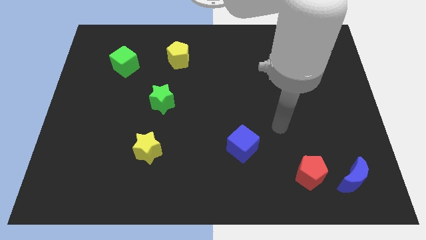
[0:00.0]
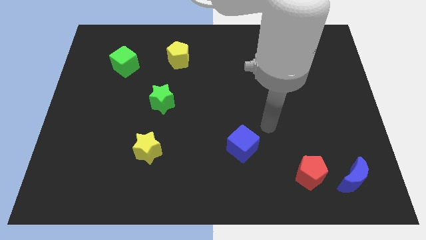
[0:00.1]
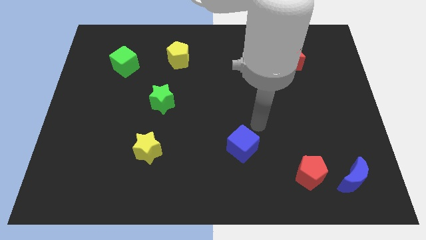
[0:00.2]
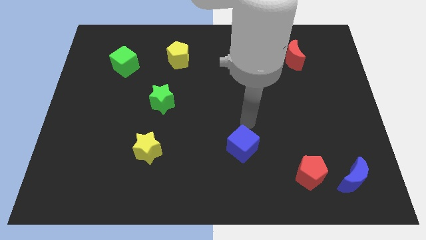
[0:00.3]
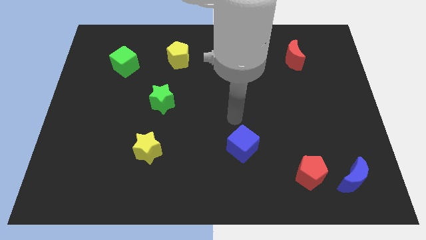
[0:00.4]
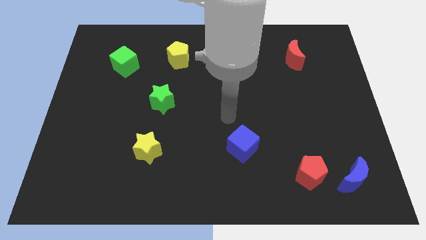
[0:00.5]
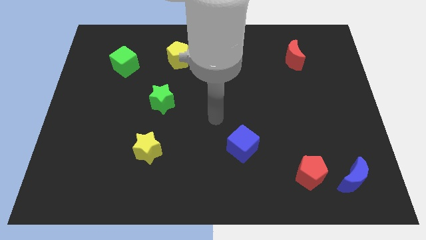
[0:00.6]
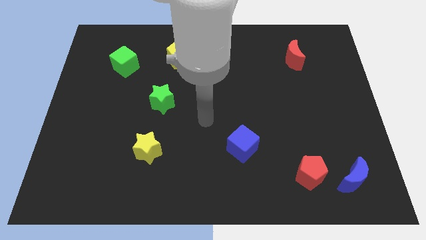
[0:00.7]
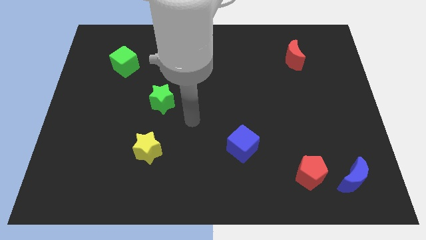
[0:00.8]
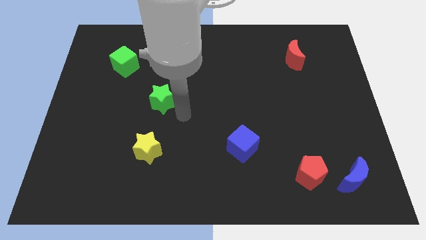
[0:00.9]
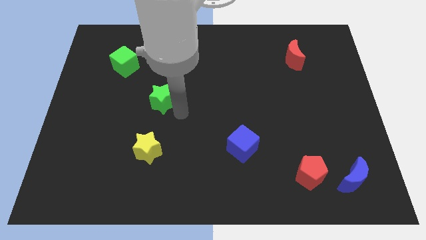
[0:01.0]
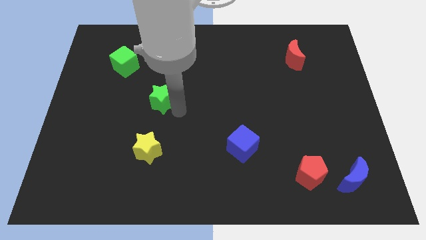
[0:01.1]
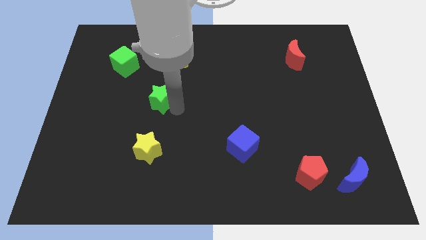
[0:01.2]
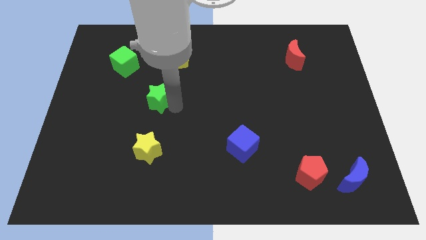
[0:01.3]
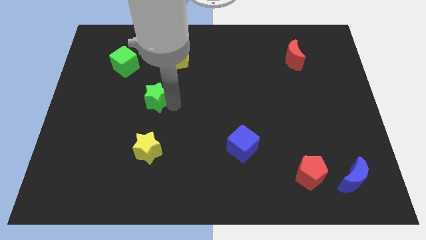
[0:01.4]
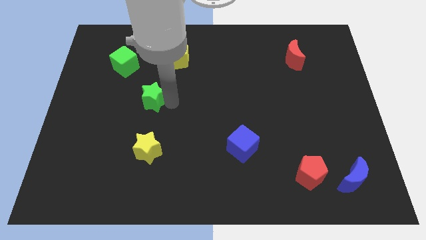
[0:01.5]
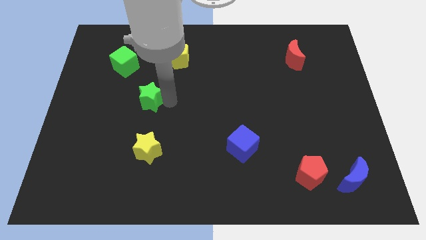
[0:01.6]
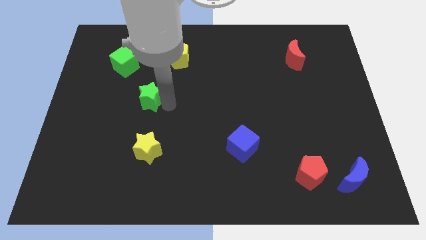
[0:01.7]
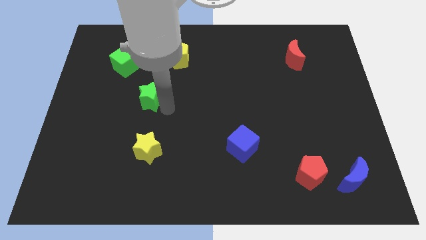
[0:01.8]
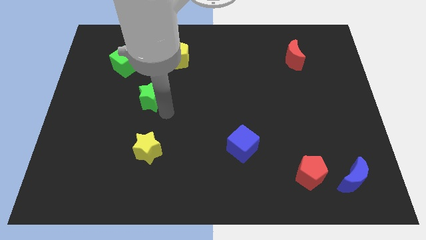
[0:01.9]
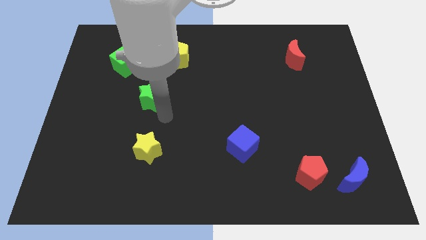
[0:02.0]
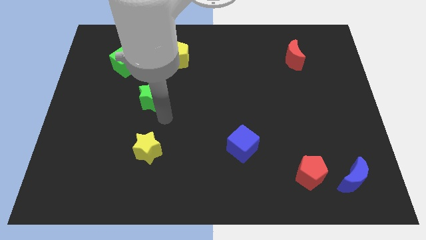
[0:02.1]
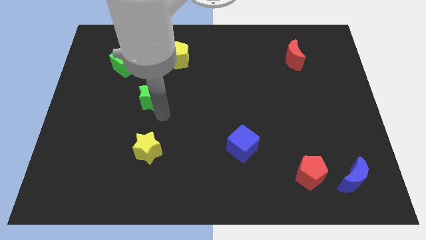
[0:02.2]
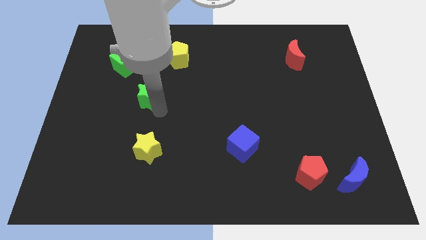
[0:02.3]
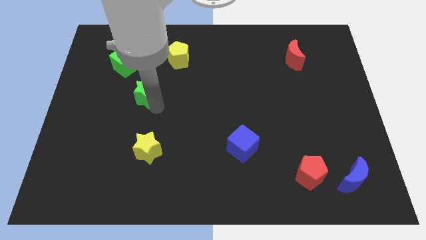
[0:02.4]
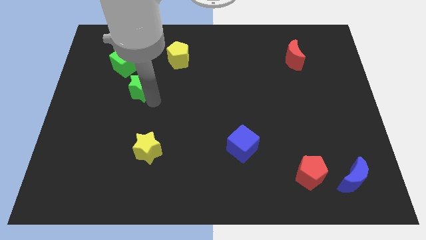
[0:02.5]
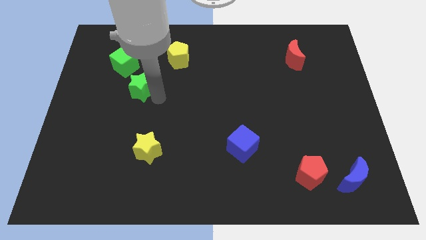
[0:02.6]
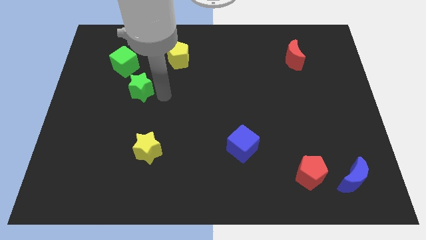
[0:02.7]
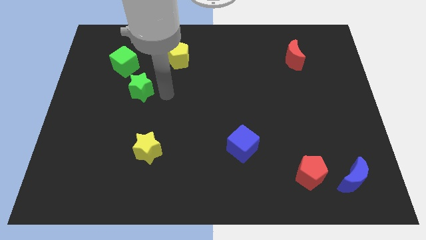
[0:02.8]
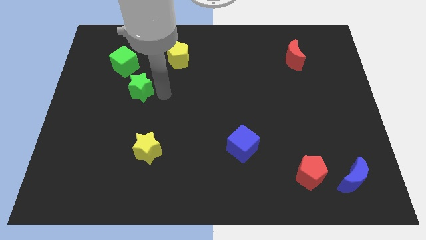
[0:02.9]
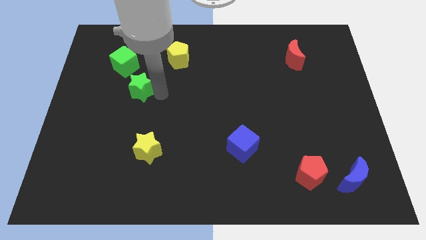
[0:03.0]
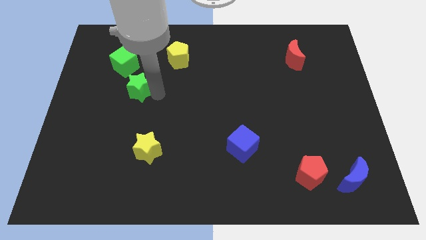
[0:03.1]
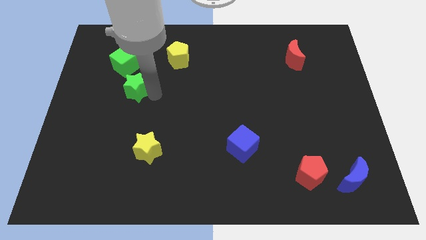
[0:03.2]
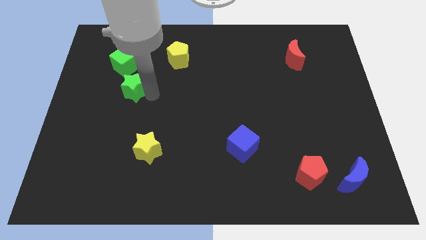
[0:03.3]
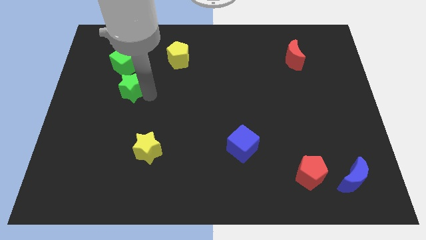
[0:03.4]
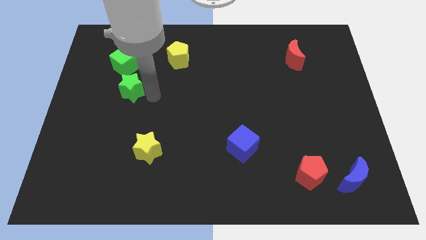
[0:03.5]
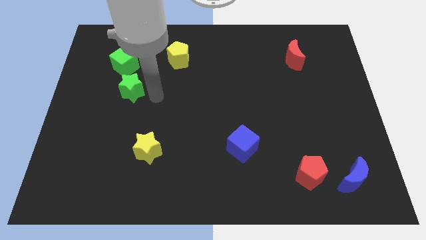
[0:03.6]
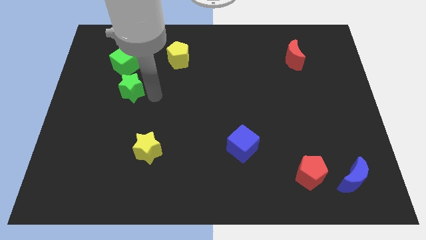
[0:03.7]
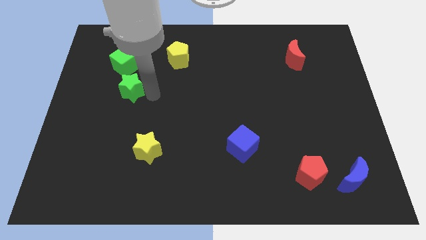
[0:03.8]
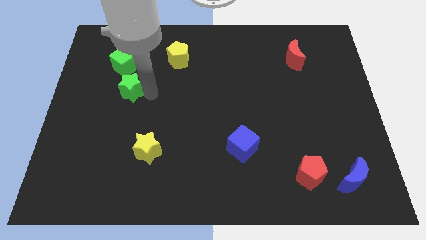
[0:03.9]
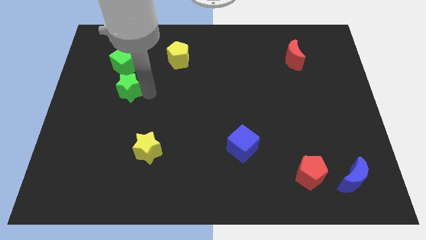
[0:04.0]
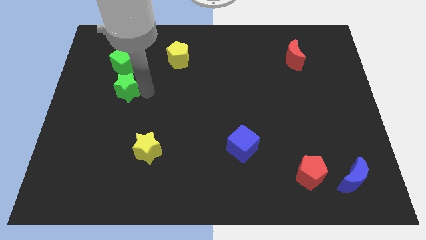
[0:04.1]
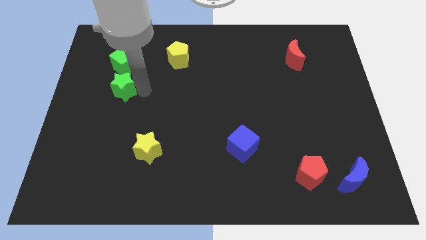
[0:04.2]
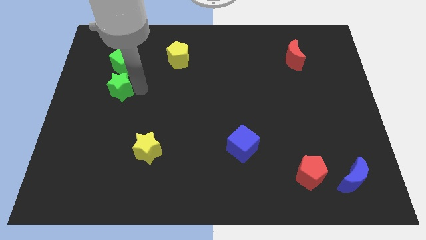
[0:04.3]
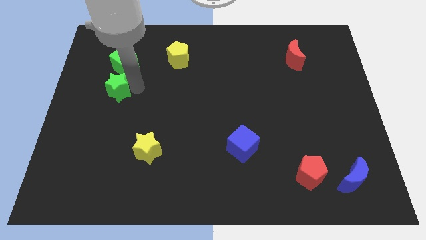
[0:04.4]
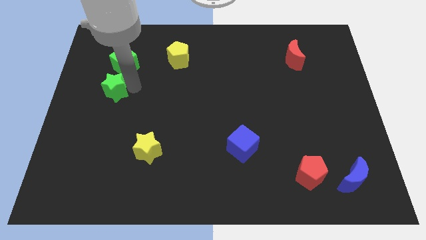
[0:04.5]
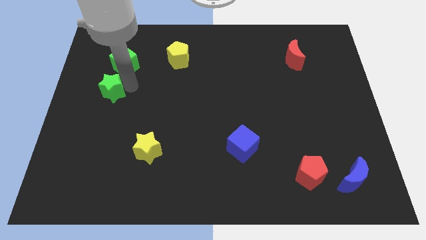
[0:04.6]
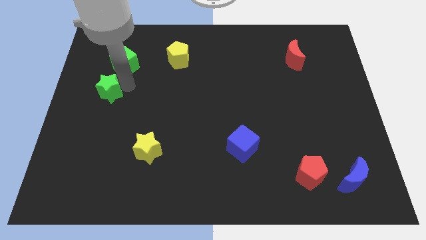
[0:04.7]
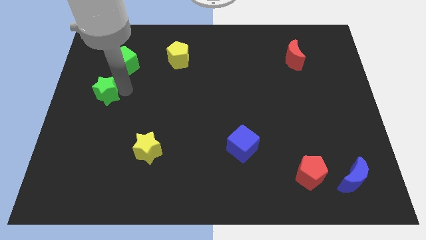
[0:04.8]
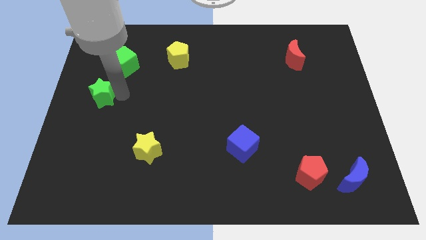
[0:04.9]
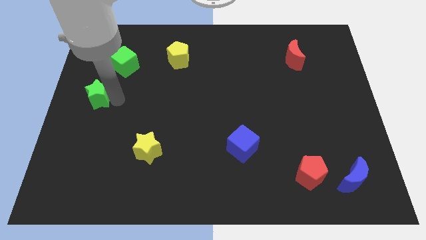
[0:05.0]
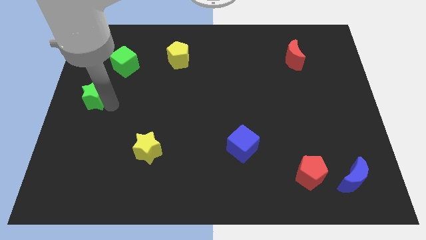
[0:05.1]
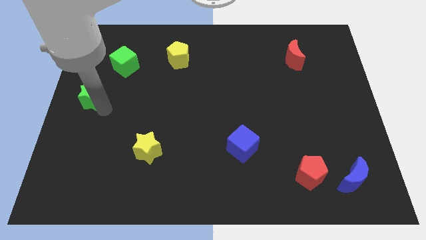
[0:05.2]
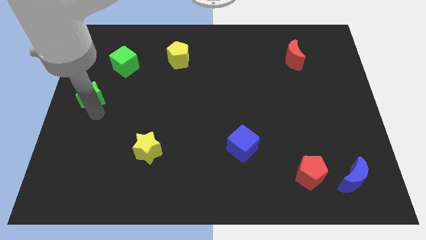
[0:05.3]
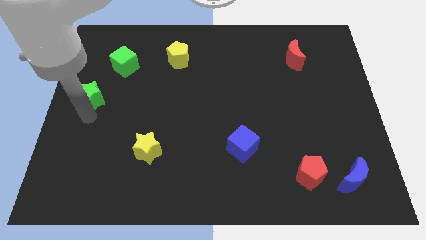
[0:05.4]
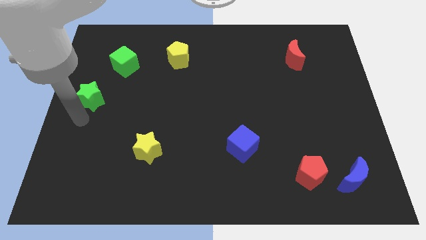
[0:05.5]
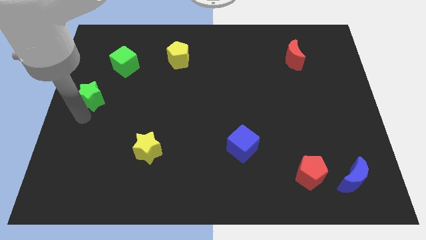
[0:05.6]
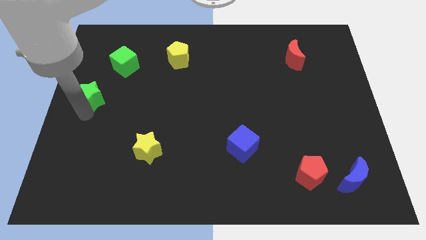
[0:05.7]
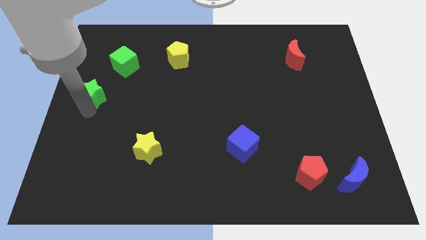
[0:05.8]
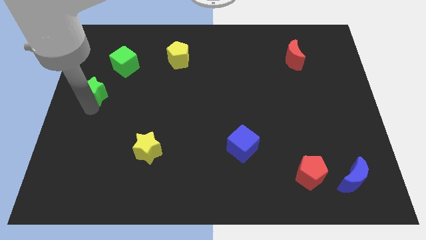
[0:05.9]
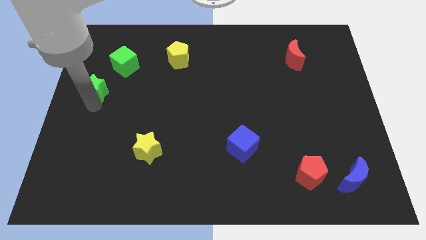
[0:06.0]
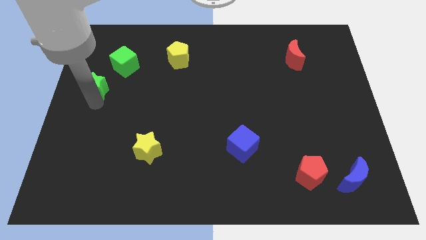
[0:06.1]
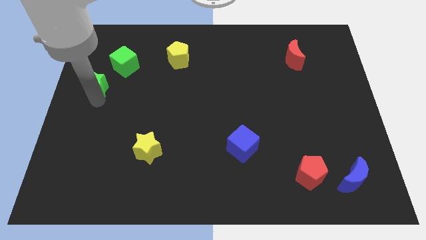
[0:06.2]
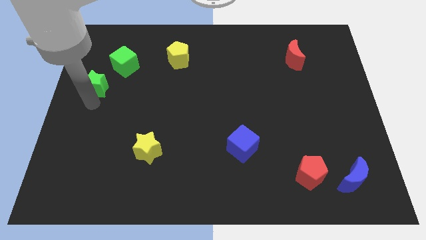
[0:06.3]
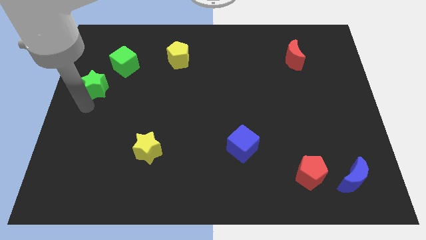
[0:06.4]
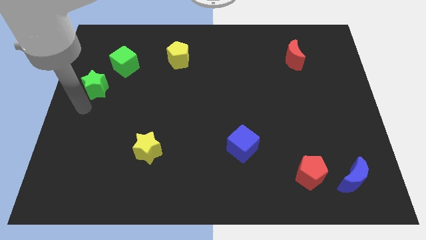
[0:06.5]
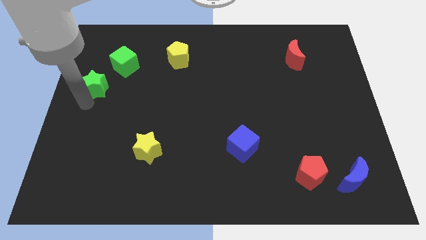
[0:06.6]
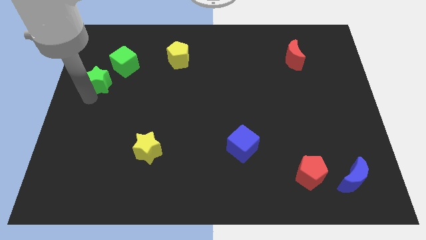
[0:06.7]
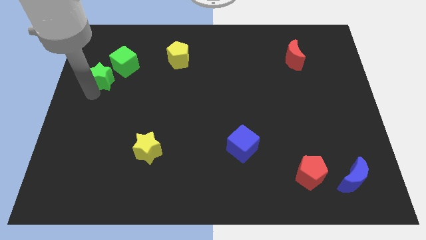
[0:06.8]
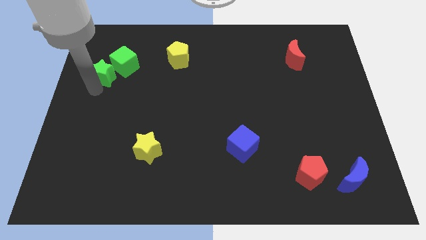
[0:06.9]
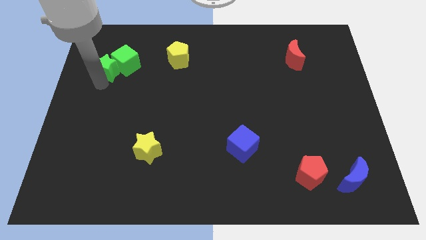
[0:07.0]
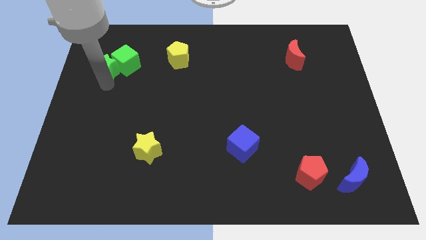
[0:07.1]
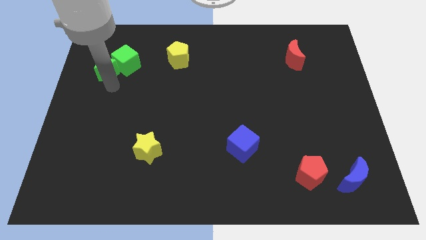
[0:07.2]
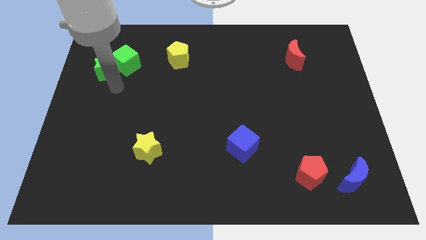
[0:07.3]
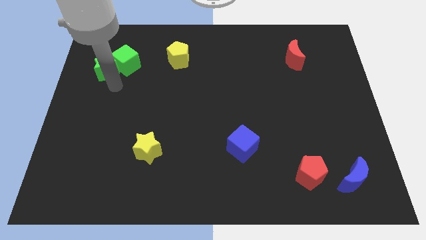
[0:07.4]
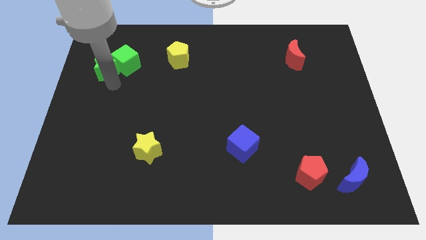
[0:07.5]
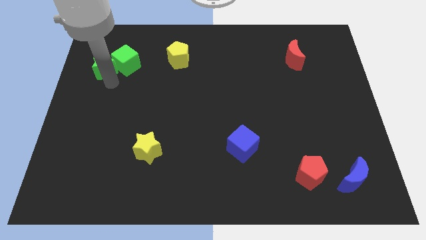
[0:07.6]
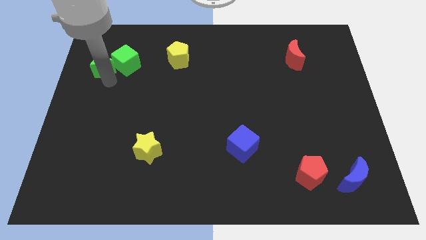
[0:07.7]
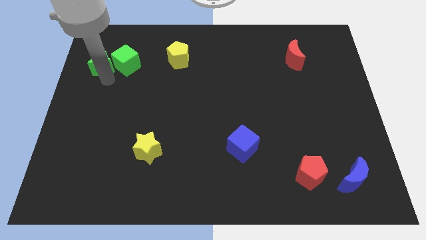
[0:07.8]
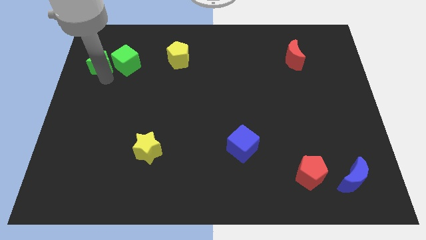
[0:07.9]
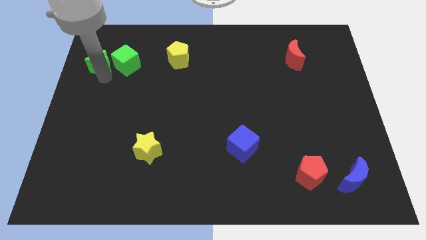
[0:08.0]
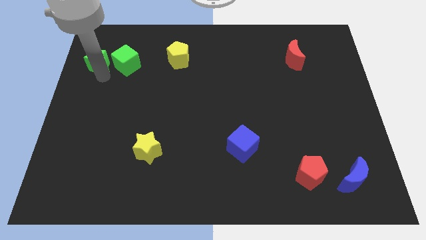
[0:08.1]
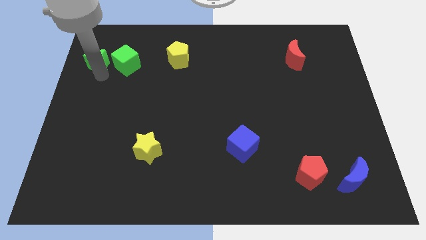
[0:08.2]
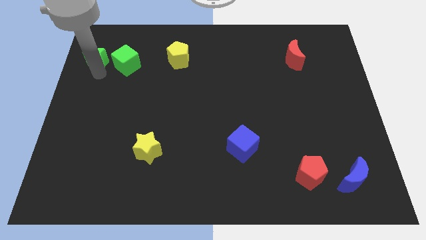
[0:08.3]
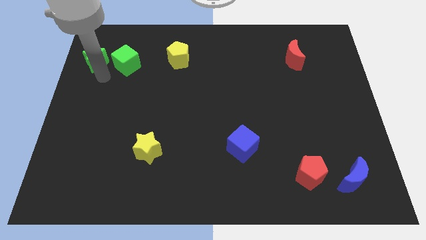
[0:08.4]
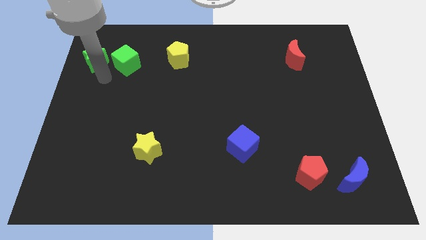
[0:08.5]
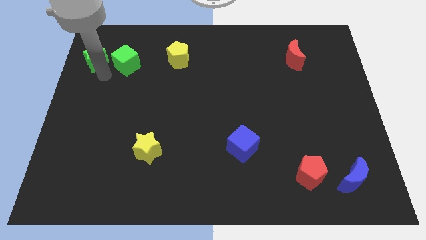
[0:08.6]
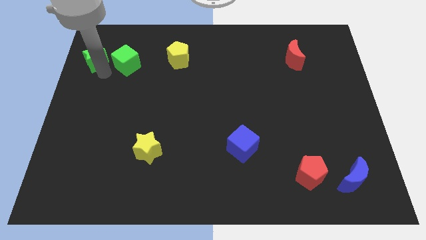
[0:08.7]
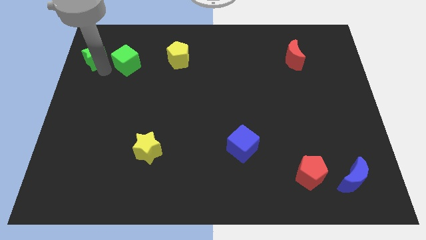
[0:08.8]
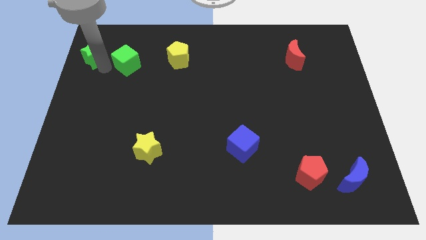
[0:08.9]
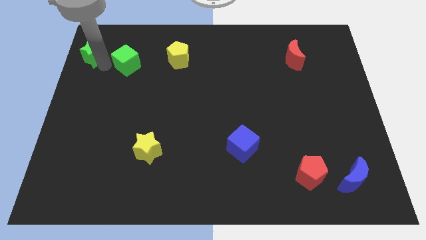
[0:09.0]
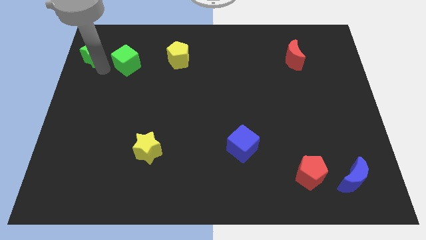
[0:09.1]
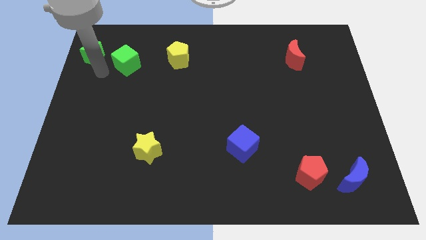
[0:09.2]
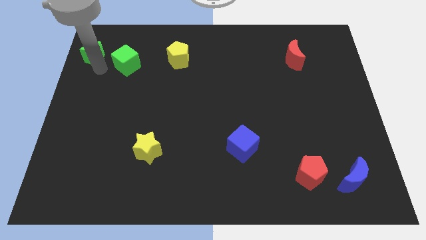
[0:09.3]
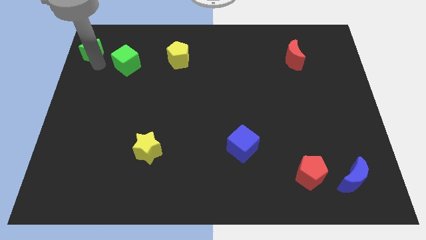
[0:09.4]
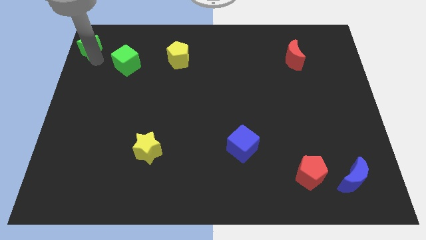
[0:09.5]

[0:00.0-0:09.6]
move the green star to the top left
